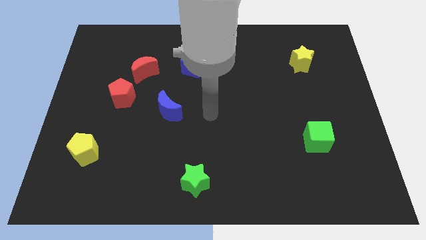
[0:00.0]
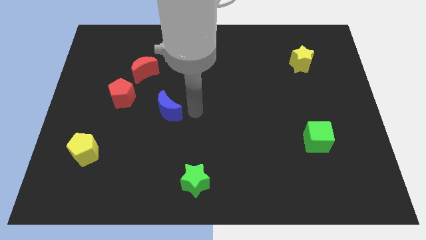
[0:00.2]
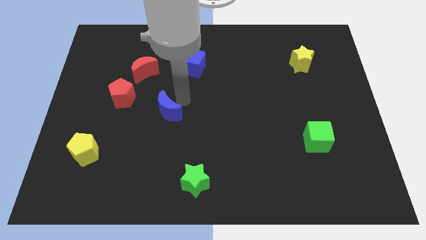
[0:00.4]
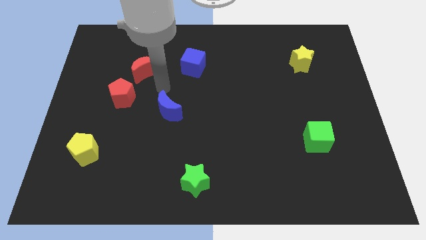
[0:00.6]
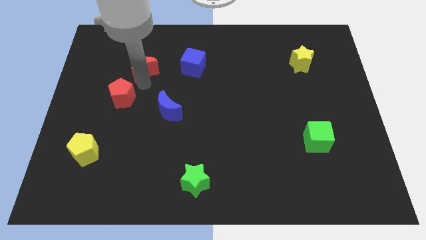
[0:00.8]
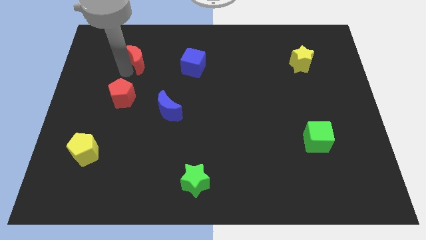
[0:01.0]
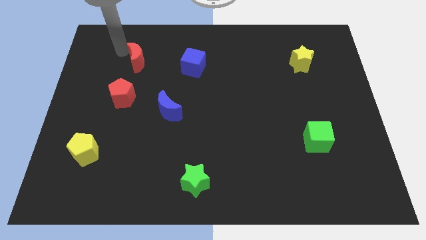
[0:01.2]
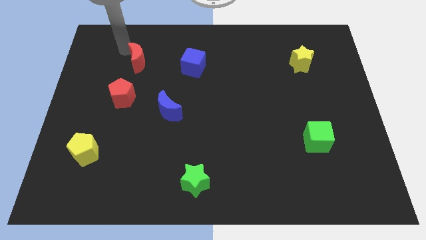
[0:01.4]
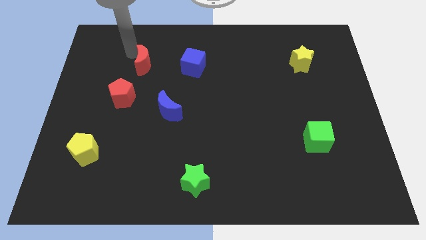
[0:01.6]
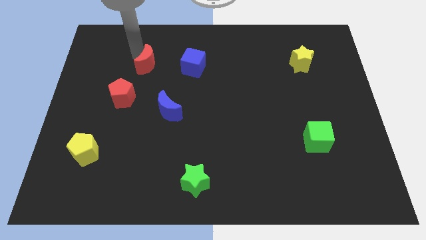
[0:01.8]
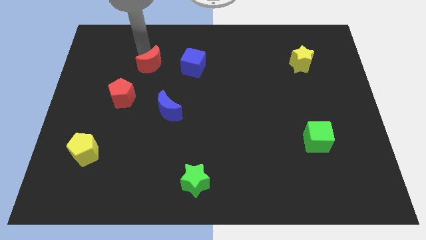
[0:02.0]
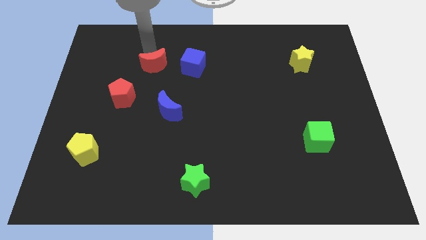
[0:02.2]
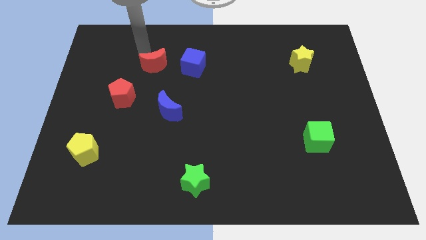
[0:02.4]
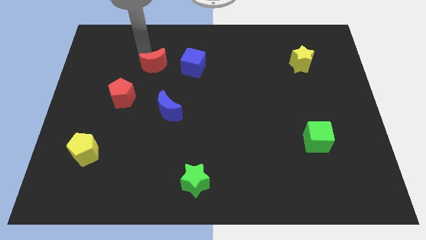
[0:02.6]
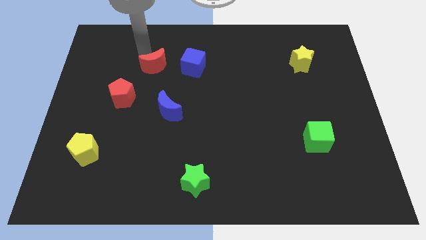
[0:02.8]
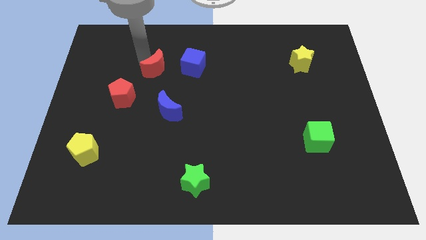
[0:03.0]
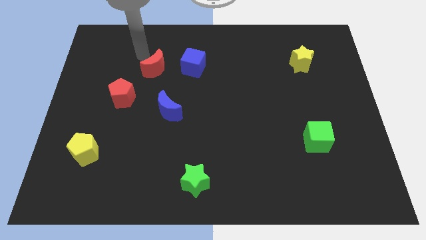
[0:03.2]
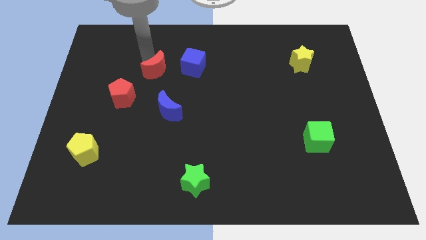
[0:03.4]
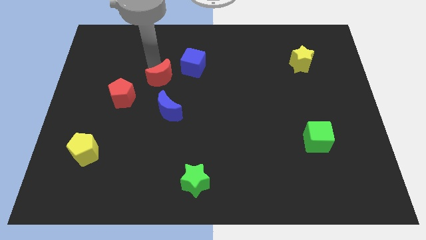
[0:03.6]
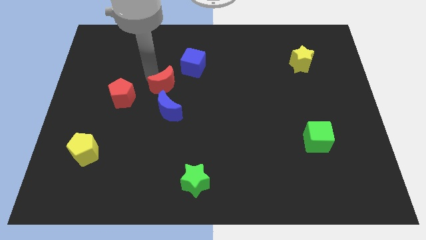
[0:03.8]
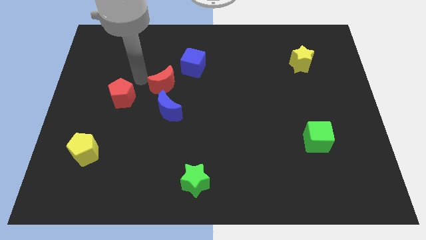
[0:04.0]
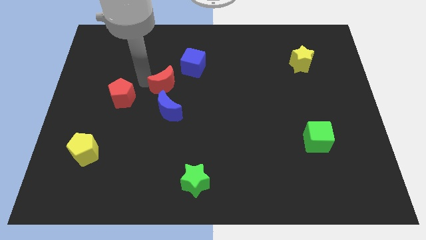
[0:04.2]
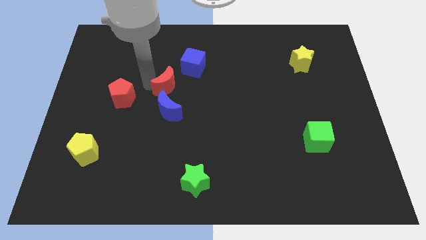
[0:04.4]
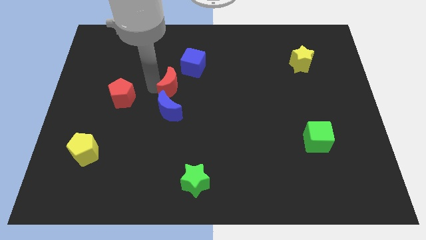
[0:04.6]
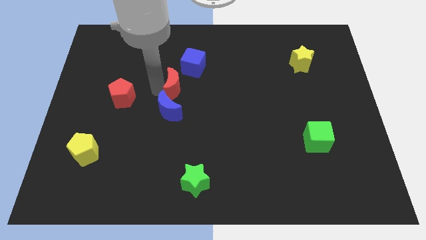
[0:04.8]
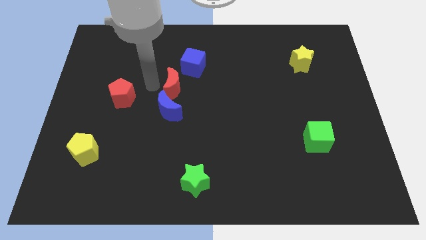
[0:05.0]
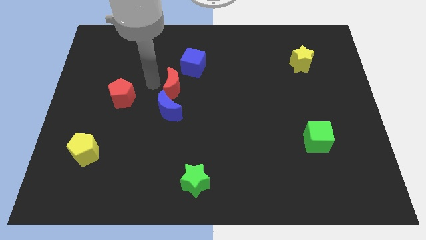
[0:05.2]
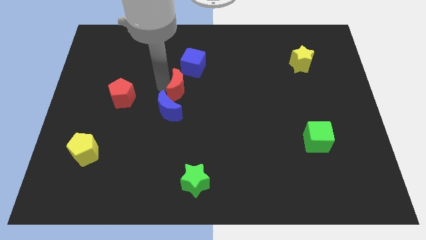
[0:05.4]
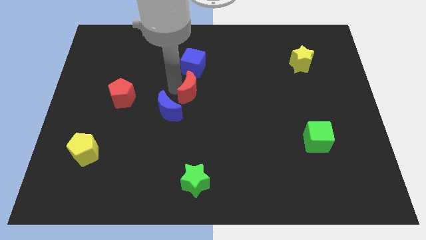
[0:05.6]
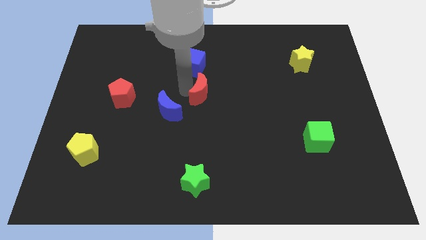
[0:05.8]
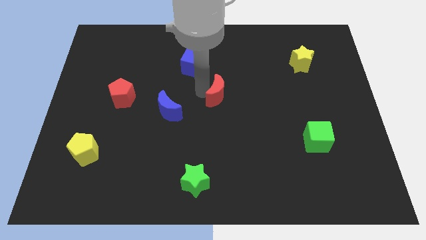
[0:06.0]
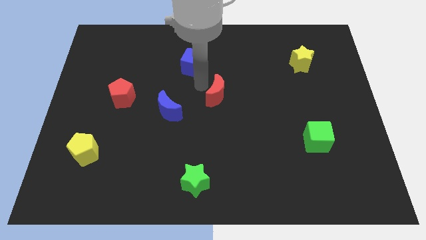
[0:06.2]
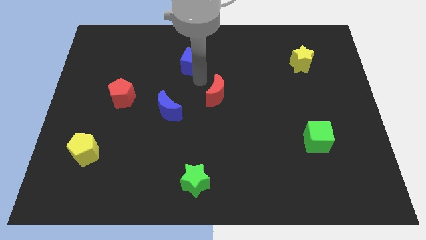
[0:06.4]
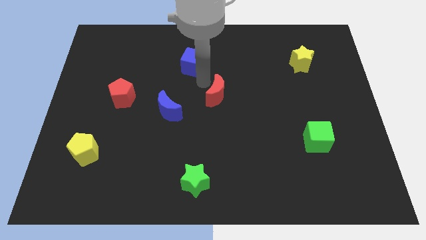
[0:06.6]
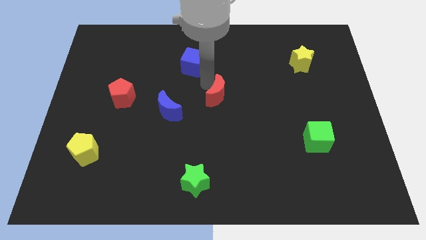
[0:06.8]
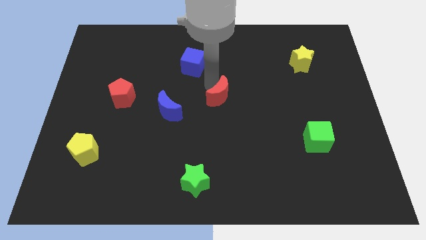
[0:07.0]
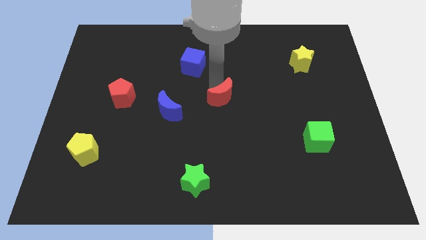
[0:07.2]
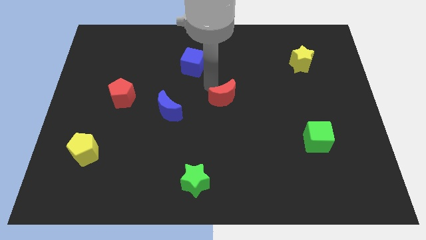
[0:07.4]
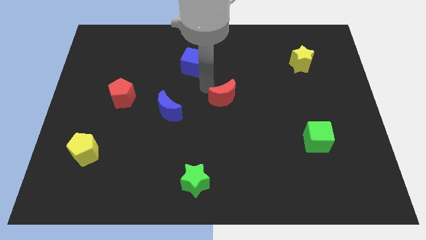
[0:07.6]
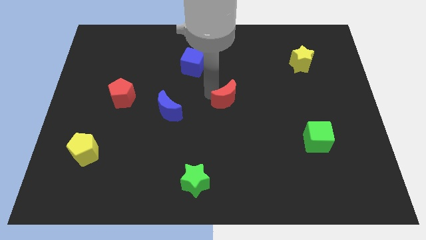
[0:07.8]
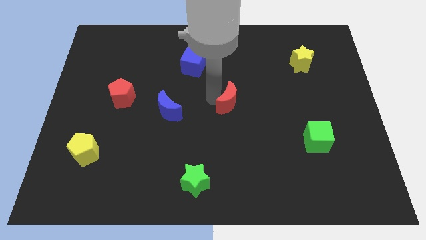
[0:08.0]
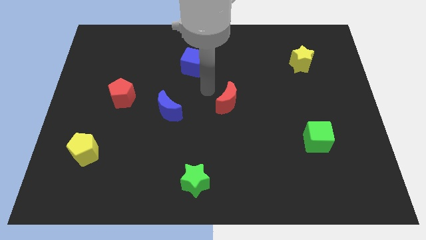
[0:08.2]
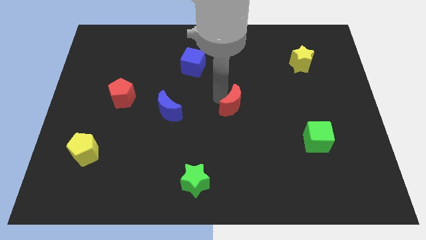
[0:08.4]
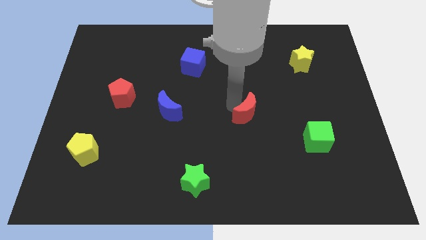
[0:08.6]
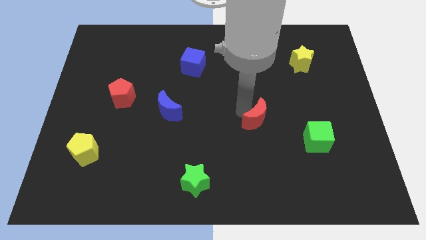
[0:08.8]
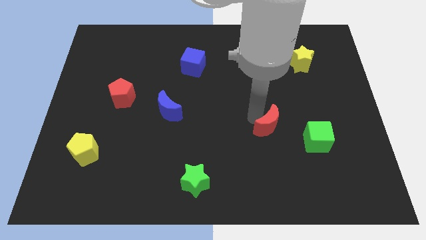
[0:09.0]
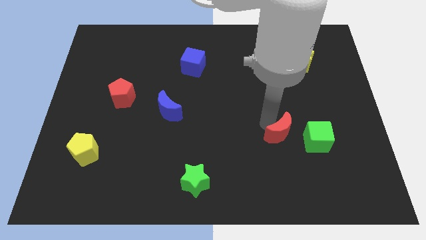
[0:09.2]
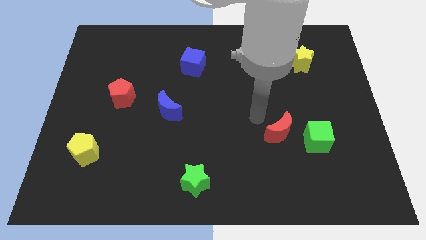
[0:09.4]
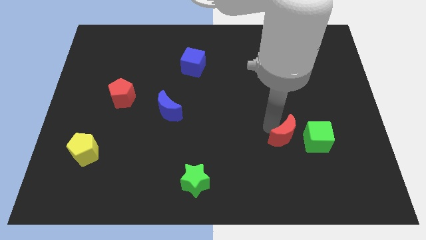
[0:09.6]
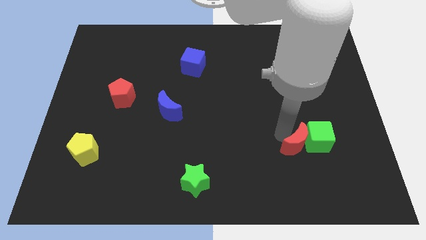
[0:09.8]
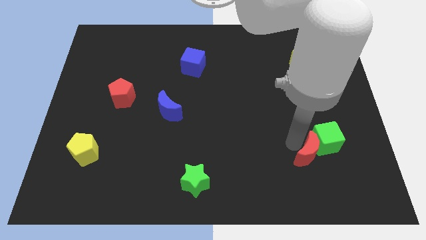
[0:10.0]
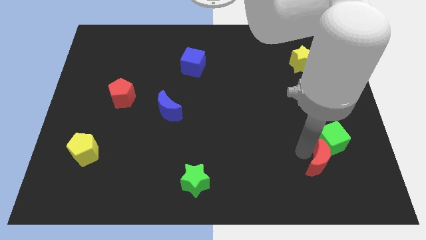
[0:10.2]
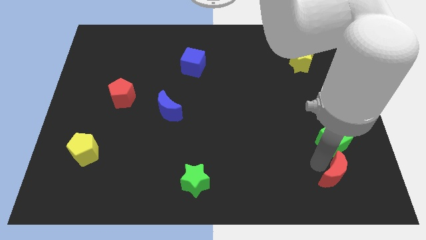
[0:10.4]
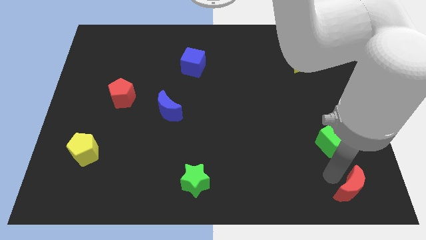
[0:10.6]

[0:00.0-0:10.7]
put the red moon to the lower right corner

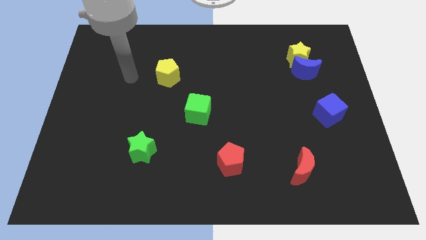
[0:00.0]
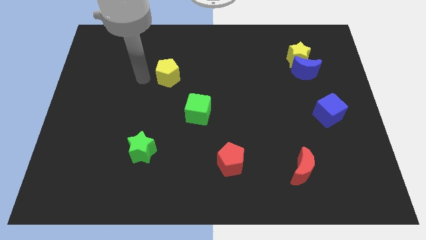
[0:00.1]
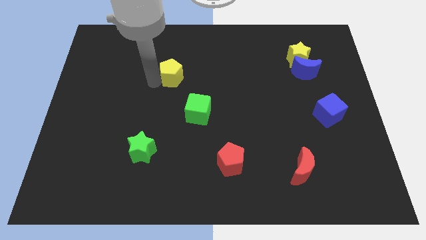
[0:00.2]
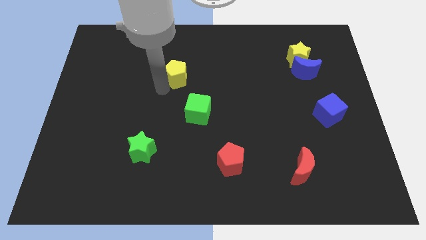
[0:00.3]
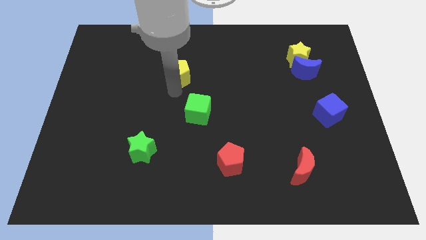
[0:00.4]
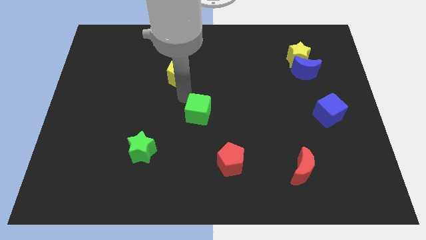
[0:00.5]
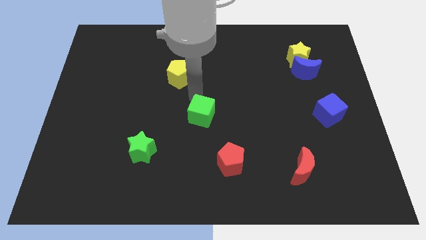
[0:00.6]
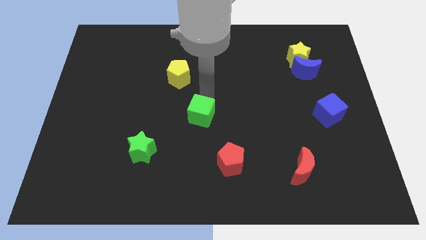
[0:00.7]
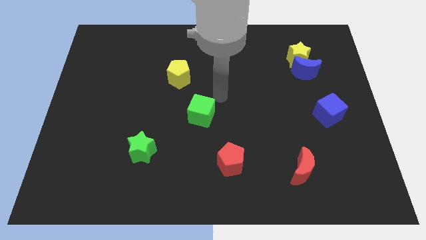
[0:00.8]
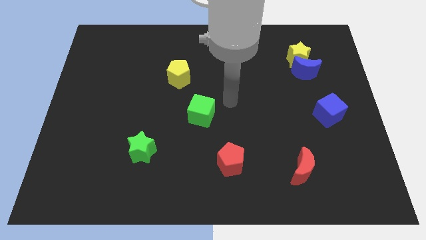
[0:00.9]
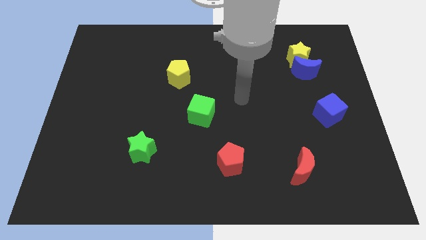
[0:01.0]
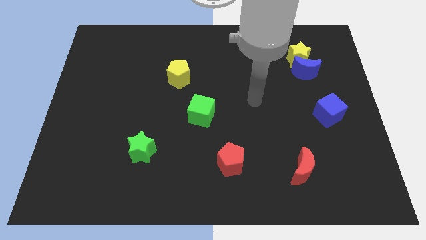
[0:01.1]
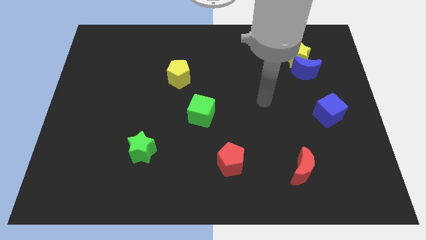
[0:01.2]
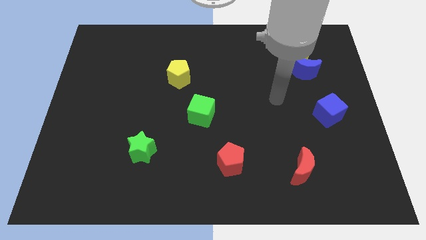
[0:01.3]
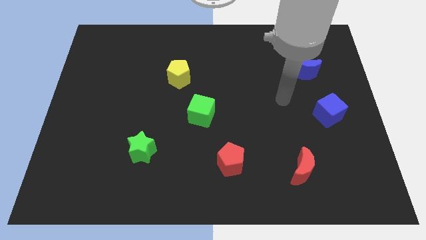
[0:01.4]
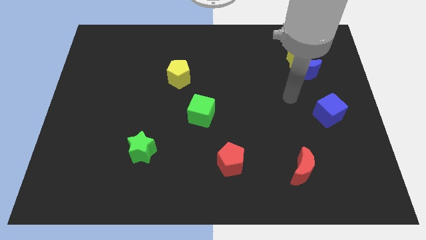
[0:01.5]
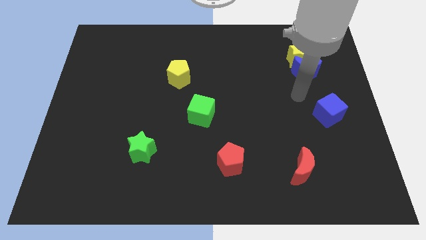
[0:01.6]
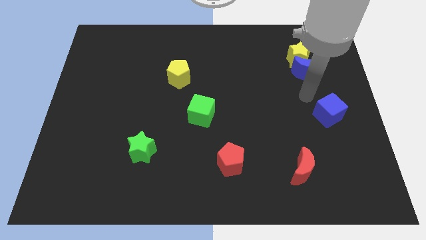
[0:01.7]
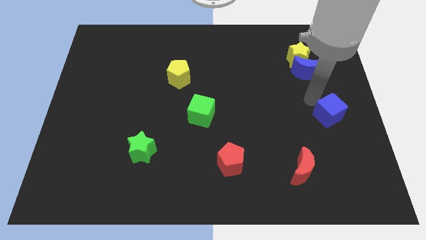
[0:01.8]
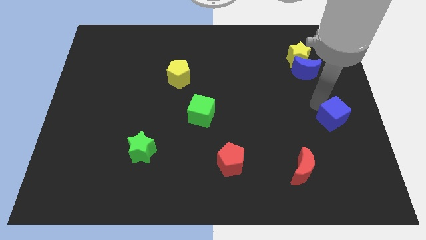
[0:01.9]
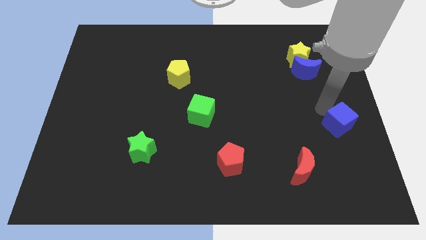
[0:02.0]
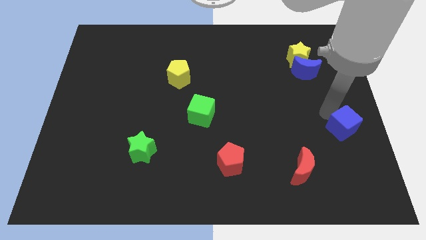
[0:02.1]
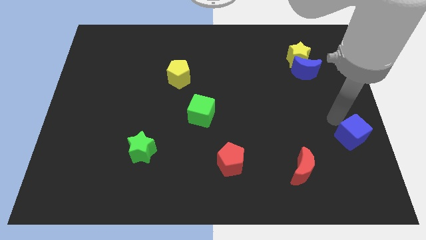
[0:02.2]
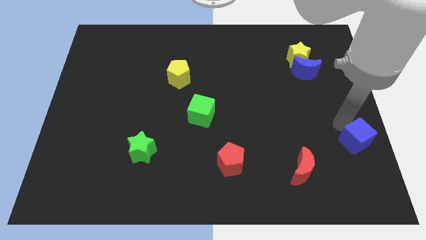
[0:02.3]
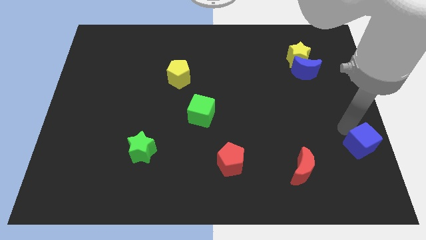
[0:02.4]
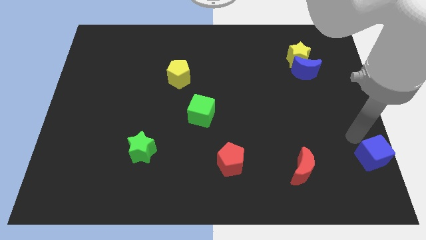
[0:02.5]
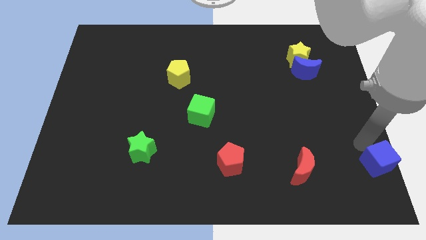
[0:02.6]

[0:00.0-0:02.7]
slide the blue cube to the bottom right of the board
